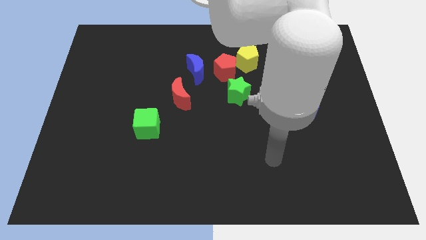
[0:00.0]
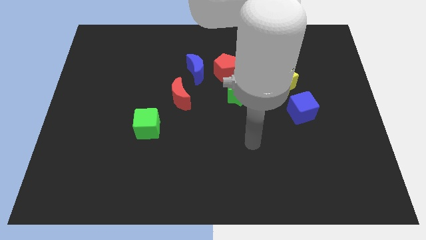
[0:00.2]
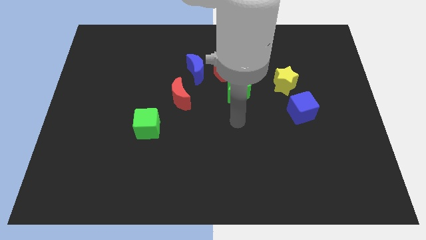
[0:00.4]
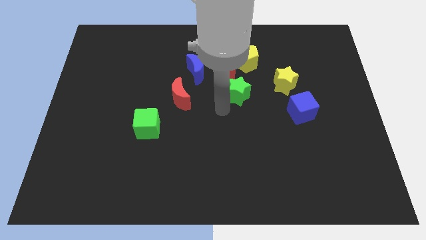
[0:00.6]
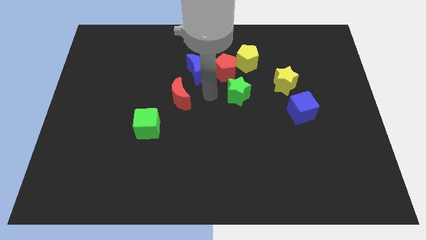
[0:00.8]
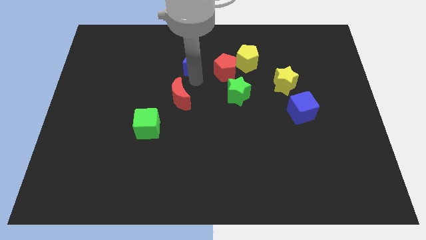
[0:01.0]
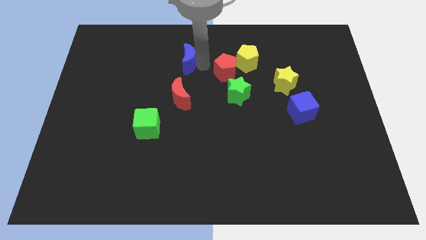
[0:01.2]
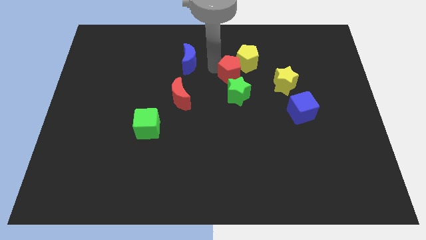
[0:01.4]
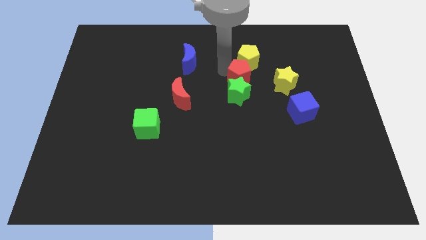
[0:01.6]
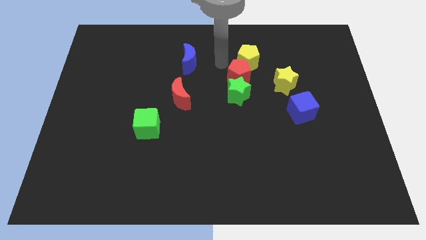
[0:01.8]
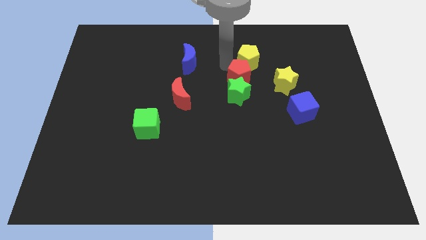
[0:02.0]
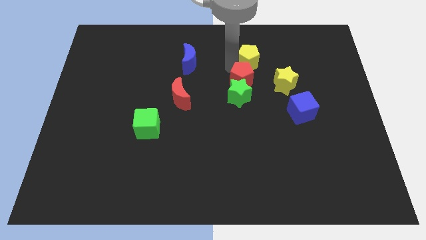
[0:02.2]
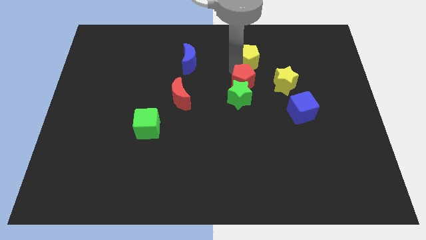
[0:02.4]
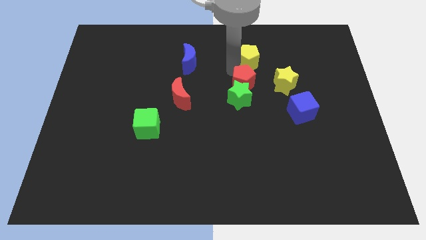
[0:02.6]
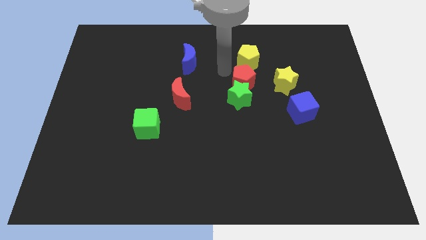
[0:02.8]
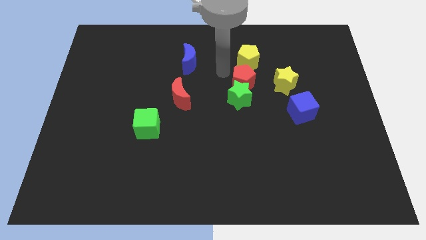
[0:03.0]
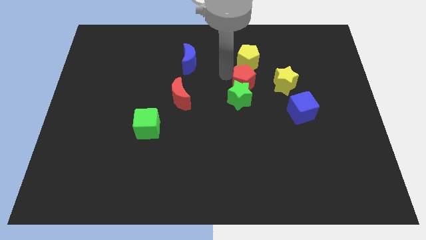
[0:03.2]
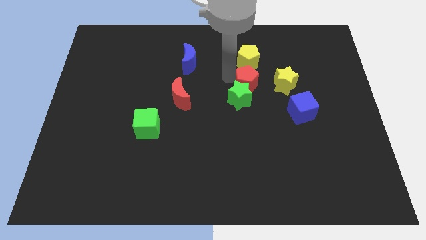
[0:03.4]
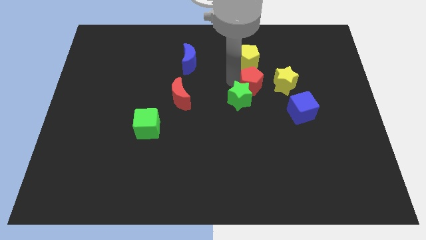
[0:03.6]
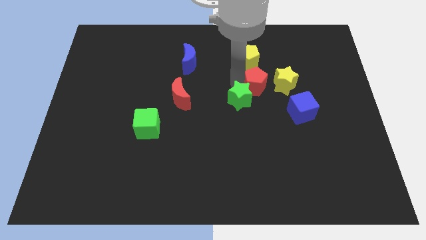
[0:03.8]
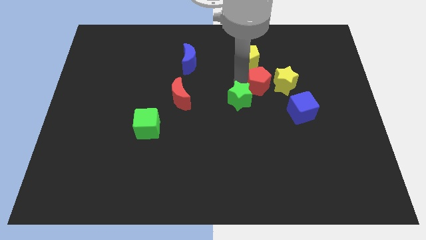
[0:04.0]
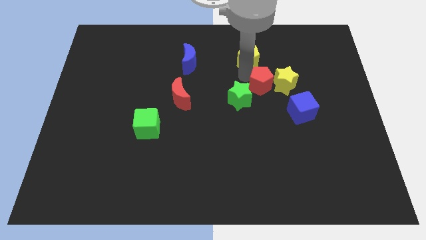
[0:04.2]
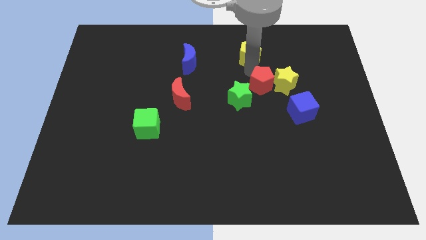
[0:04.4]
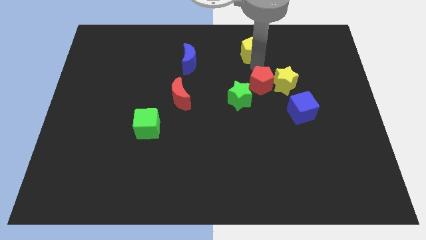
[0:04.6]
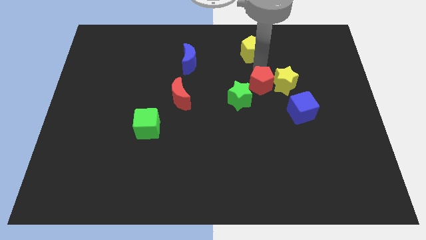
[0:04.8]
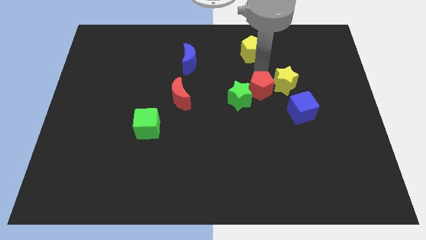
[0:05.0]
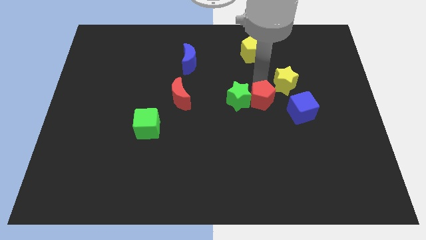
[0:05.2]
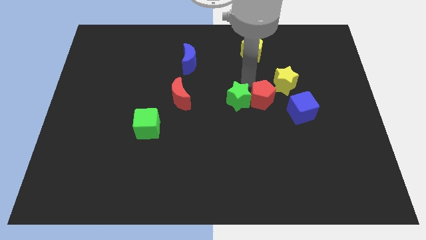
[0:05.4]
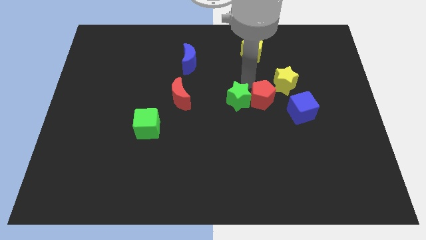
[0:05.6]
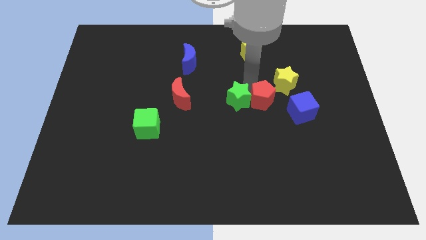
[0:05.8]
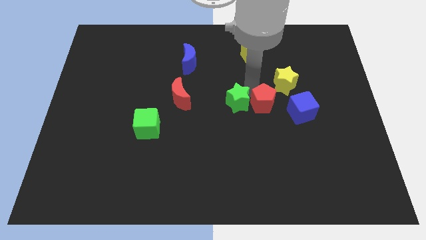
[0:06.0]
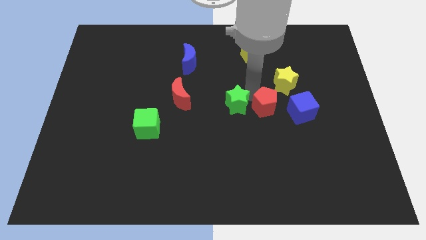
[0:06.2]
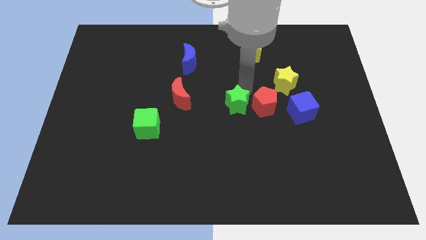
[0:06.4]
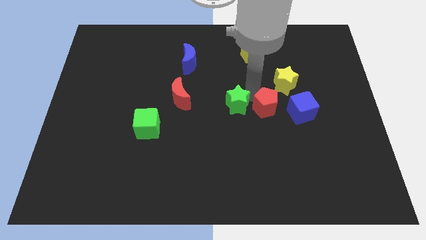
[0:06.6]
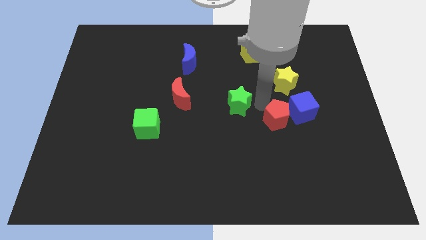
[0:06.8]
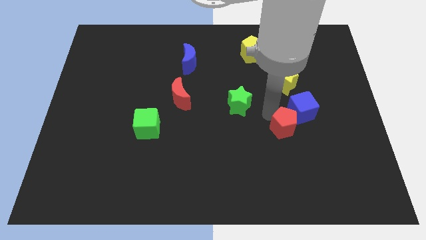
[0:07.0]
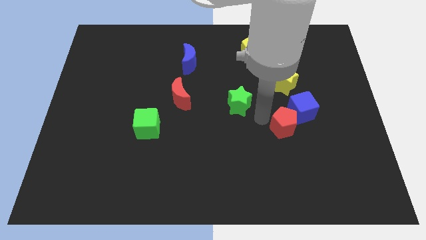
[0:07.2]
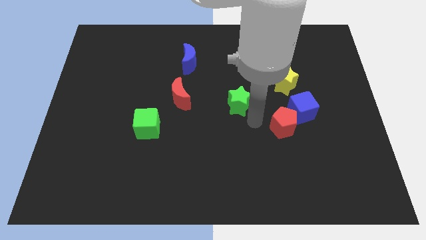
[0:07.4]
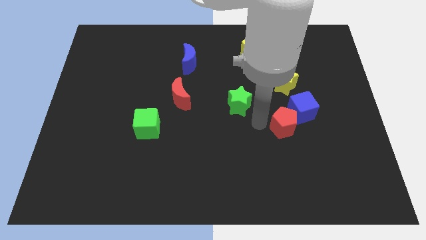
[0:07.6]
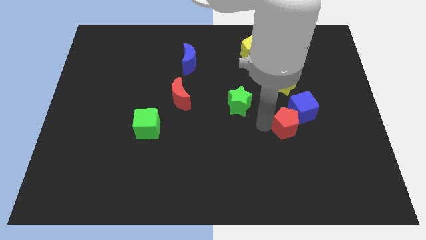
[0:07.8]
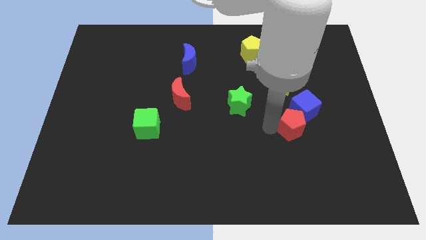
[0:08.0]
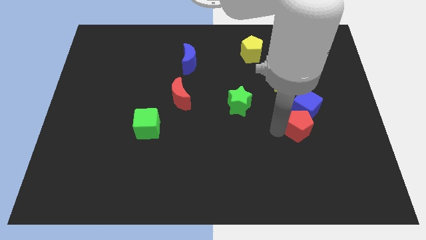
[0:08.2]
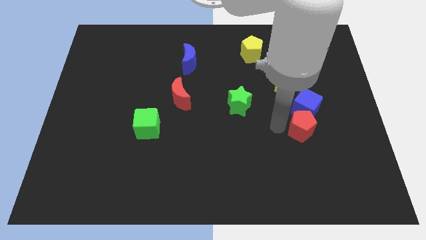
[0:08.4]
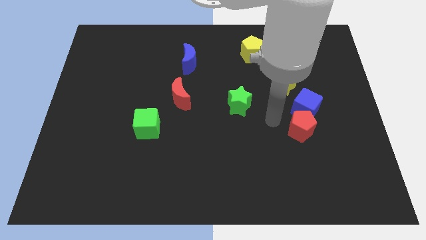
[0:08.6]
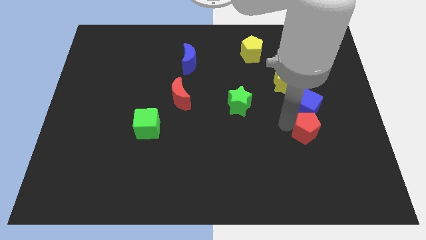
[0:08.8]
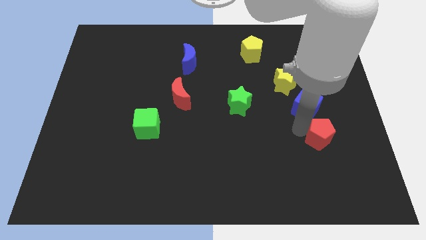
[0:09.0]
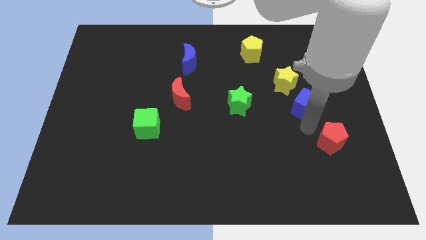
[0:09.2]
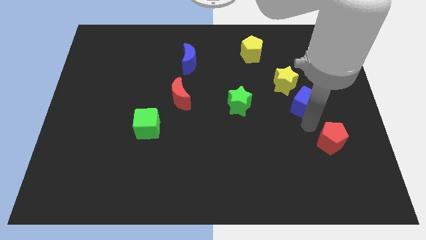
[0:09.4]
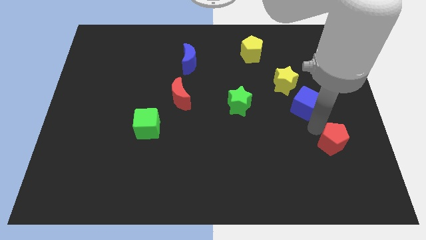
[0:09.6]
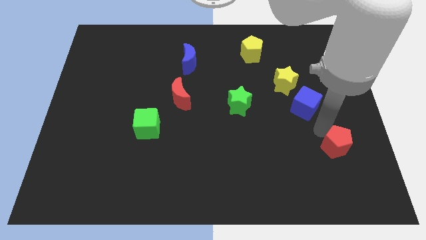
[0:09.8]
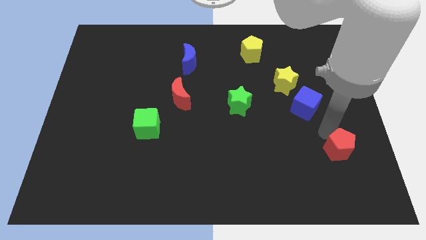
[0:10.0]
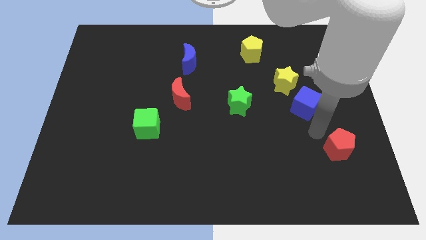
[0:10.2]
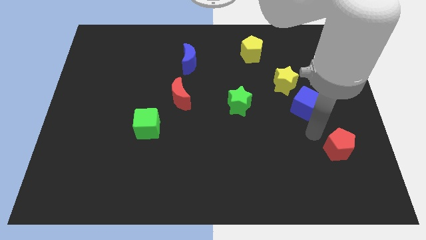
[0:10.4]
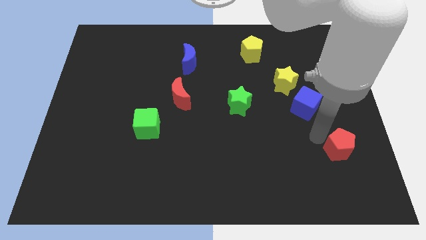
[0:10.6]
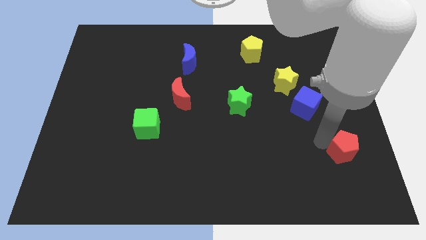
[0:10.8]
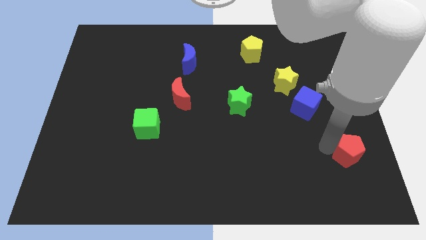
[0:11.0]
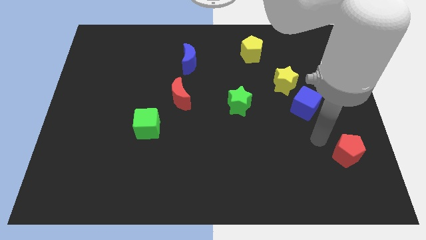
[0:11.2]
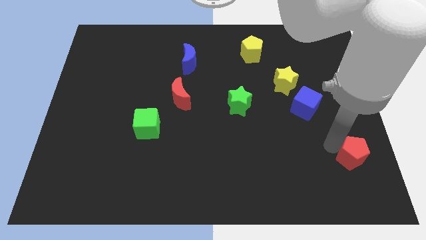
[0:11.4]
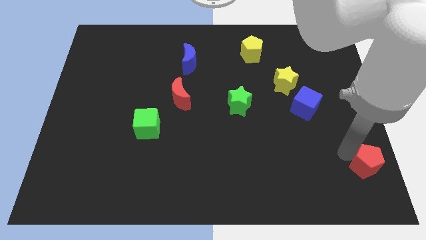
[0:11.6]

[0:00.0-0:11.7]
put the red pentagon to the bottom right corner

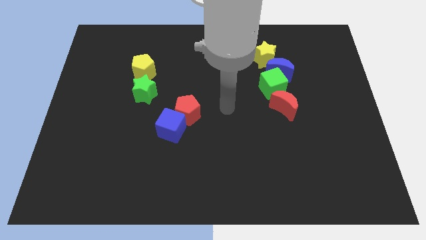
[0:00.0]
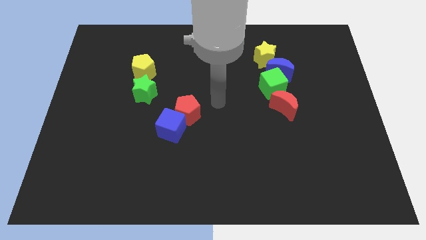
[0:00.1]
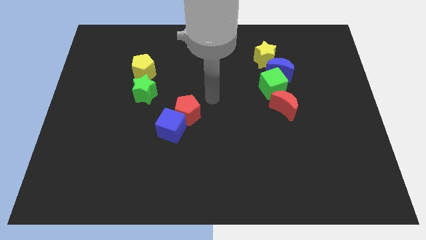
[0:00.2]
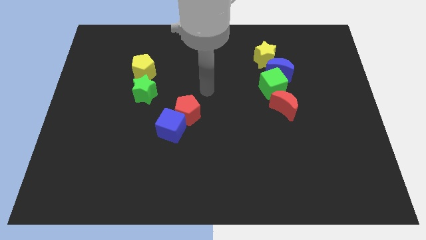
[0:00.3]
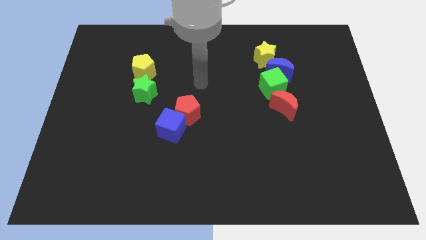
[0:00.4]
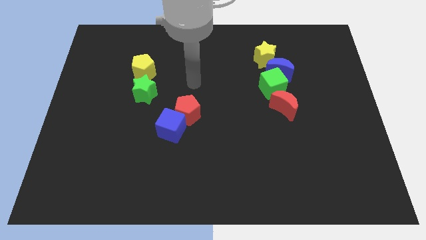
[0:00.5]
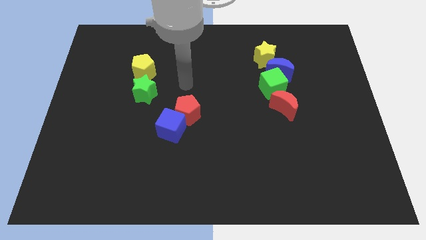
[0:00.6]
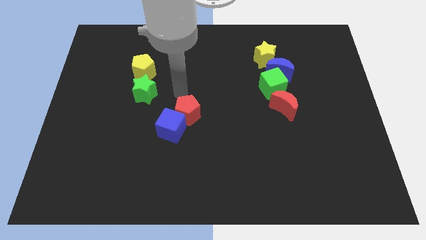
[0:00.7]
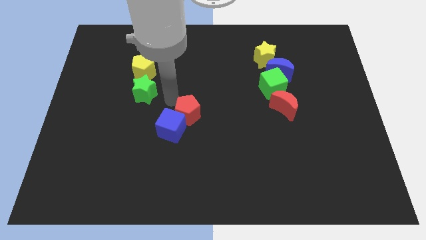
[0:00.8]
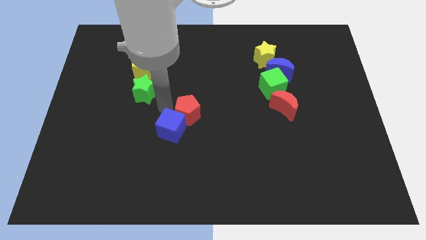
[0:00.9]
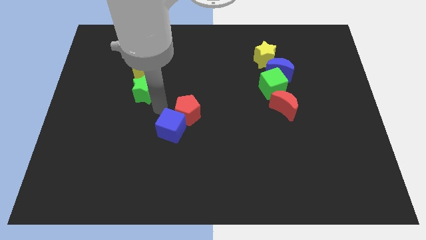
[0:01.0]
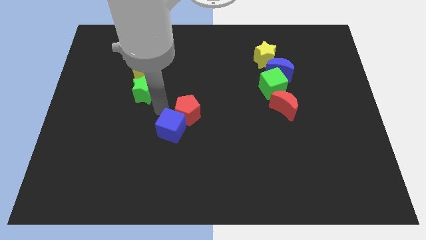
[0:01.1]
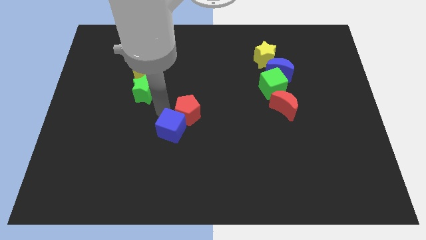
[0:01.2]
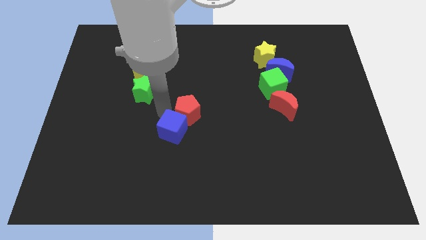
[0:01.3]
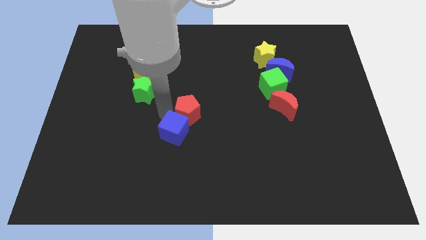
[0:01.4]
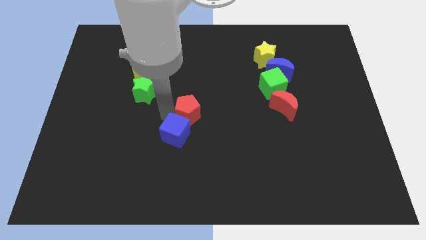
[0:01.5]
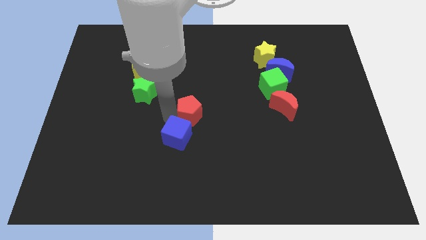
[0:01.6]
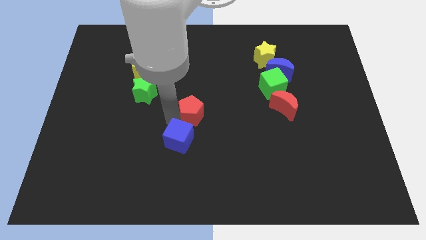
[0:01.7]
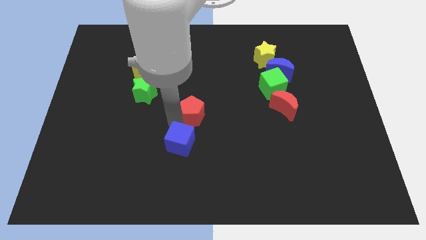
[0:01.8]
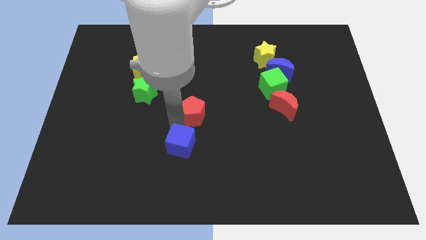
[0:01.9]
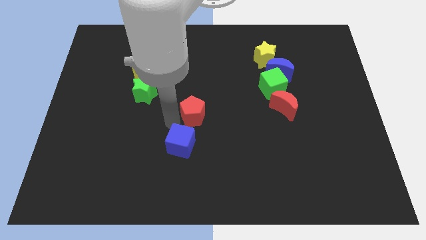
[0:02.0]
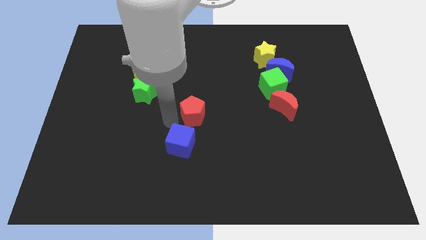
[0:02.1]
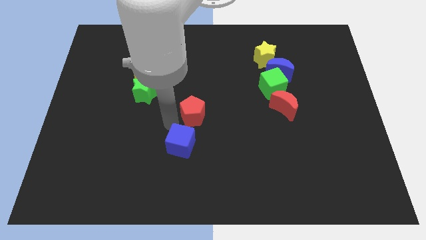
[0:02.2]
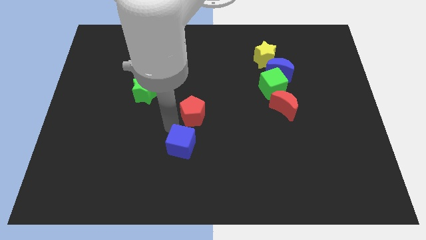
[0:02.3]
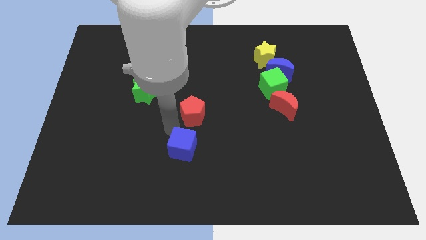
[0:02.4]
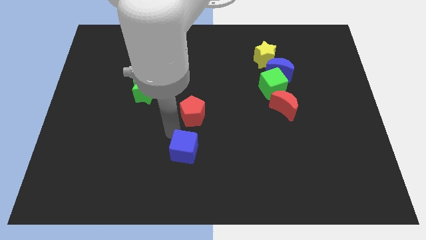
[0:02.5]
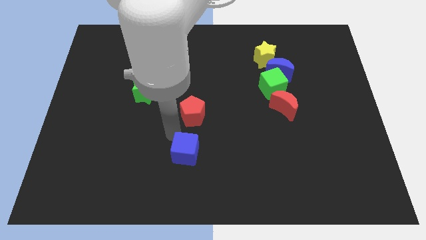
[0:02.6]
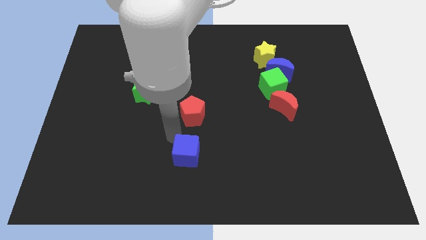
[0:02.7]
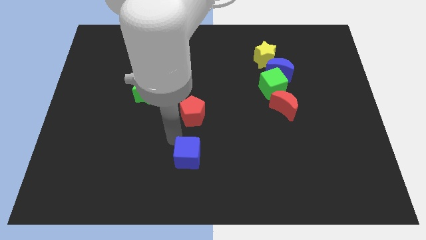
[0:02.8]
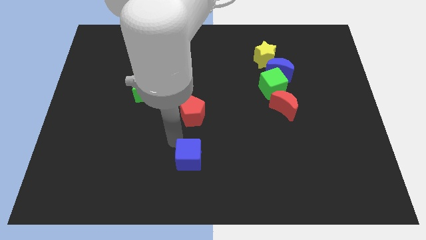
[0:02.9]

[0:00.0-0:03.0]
push the blue cube to the bottom
